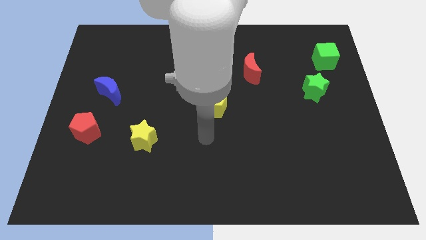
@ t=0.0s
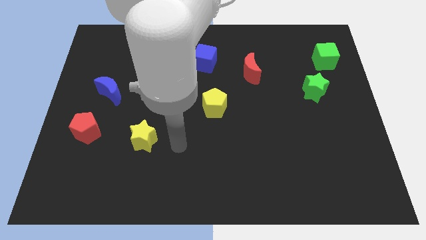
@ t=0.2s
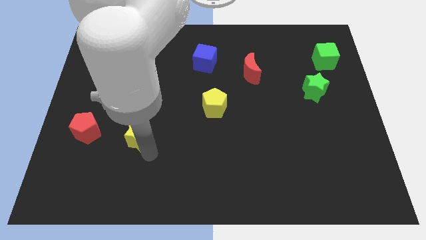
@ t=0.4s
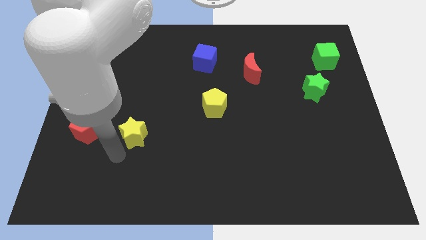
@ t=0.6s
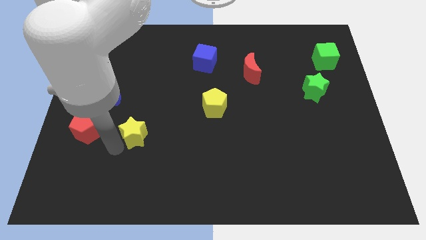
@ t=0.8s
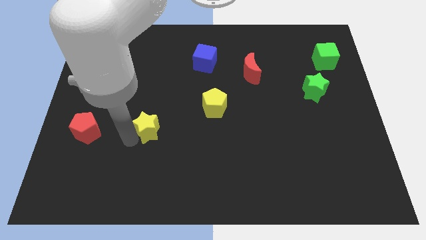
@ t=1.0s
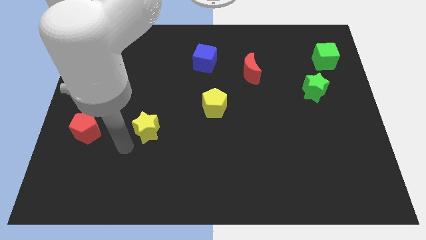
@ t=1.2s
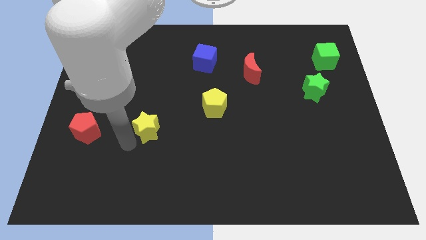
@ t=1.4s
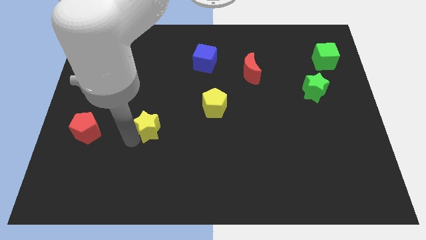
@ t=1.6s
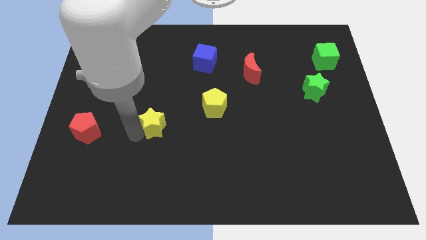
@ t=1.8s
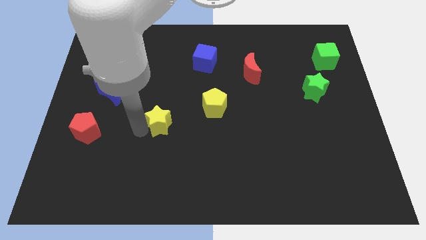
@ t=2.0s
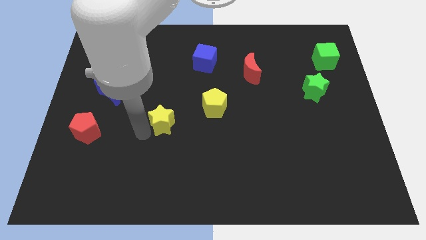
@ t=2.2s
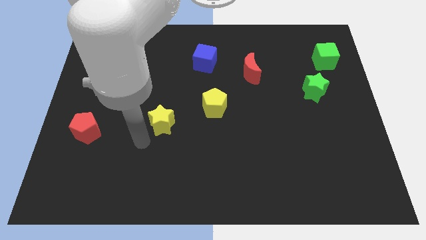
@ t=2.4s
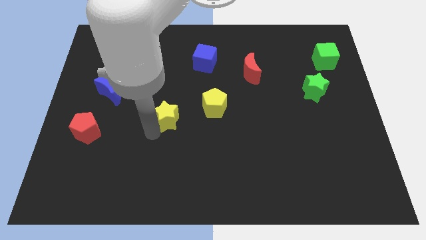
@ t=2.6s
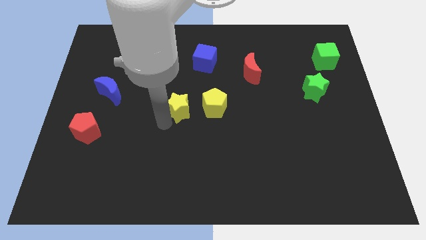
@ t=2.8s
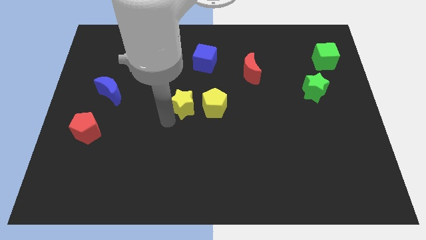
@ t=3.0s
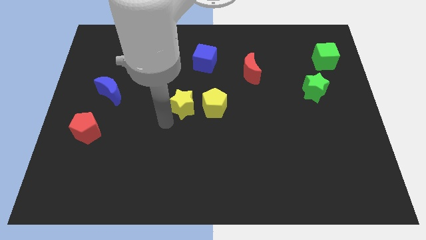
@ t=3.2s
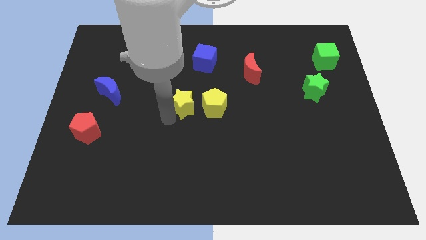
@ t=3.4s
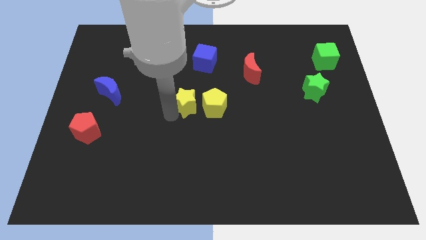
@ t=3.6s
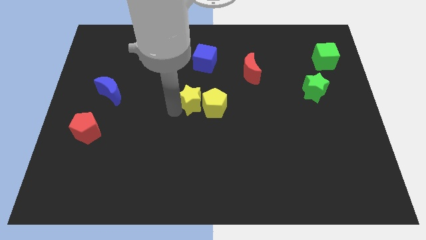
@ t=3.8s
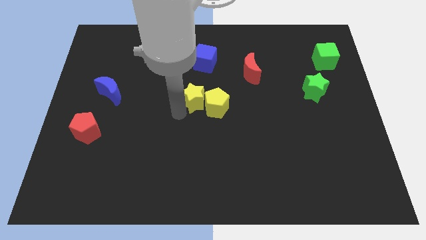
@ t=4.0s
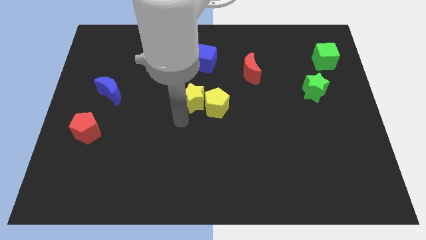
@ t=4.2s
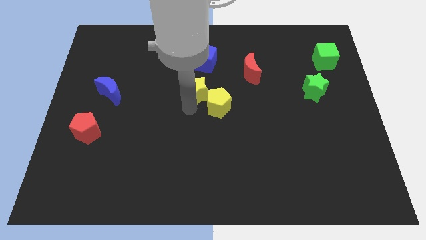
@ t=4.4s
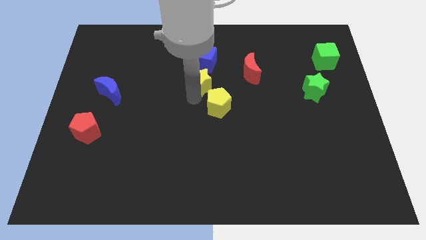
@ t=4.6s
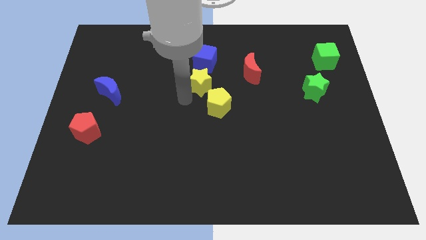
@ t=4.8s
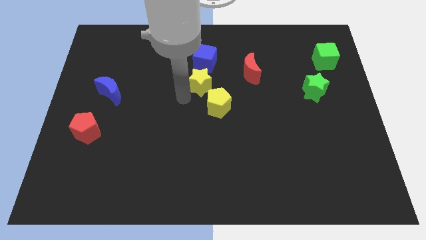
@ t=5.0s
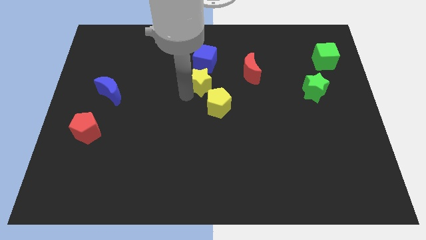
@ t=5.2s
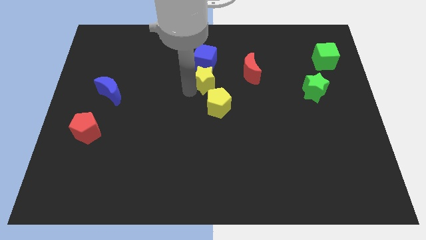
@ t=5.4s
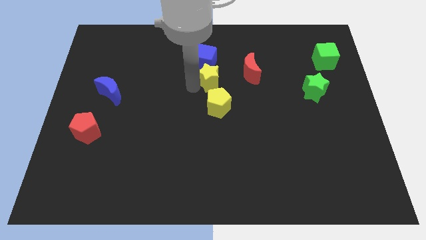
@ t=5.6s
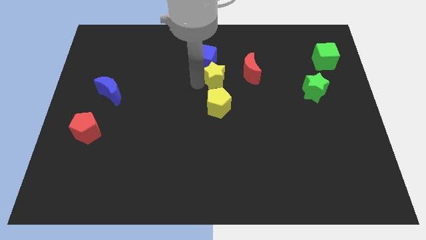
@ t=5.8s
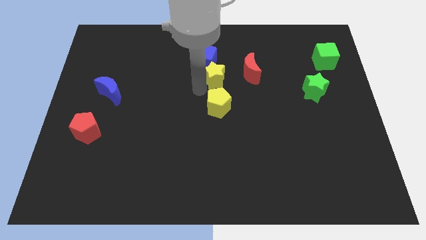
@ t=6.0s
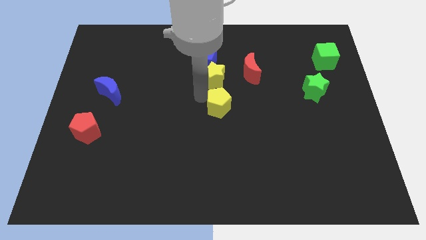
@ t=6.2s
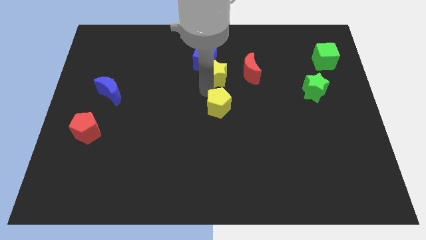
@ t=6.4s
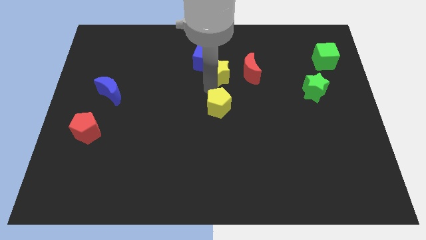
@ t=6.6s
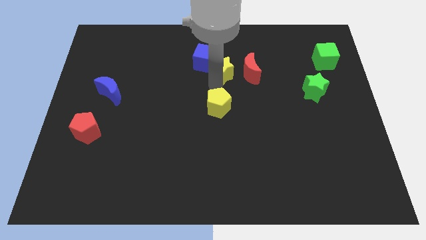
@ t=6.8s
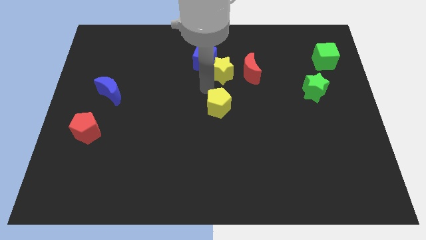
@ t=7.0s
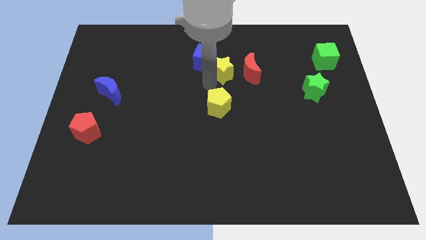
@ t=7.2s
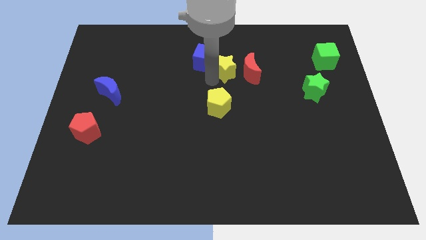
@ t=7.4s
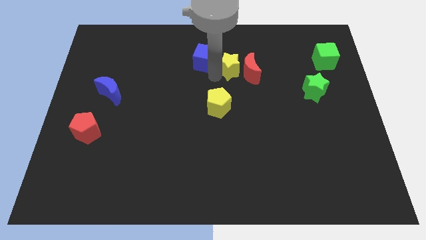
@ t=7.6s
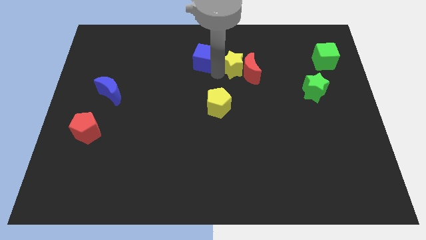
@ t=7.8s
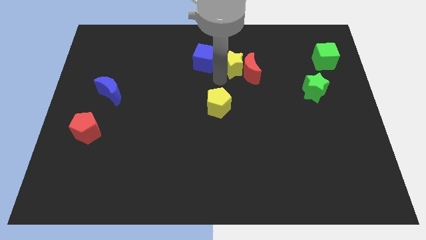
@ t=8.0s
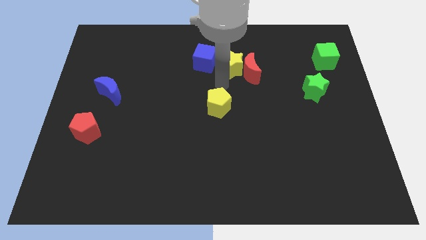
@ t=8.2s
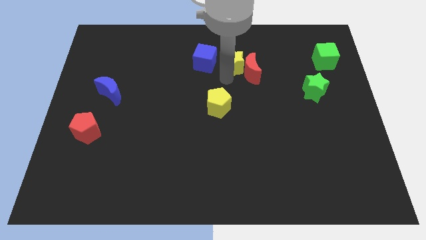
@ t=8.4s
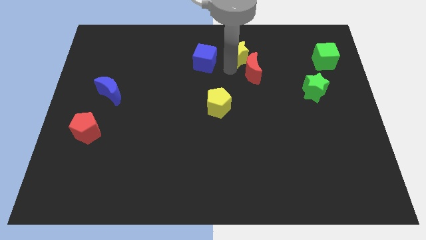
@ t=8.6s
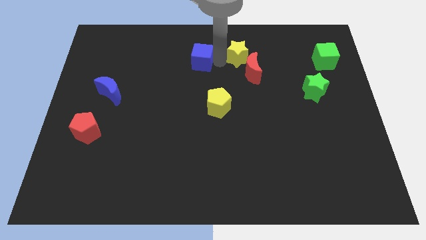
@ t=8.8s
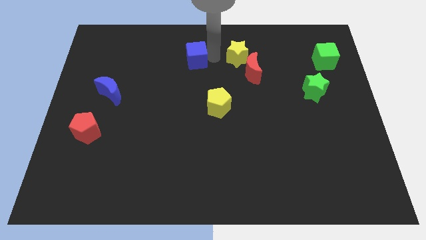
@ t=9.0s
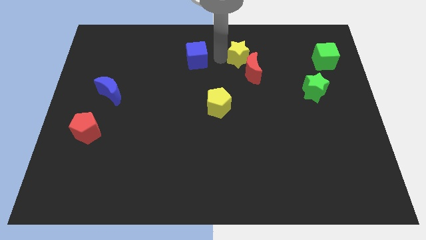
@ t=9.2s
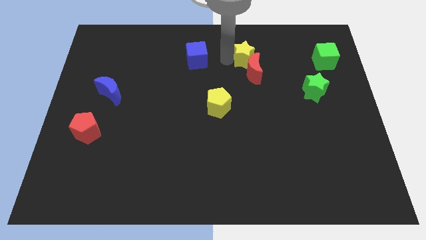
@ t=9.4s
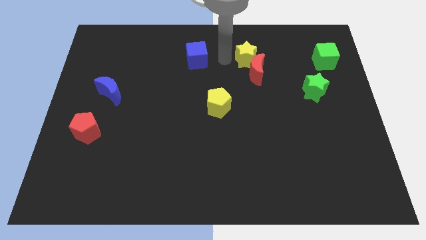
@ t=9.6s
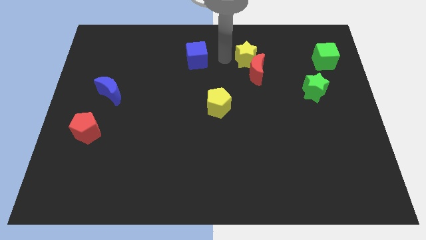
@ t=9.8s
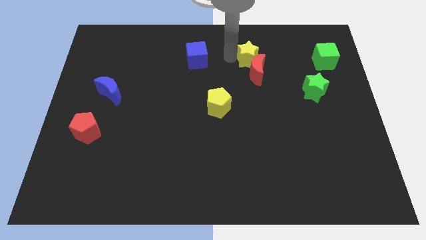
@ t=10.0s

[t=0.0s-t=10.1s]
slide the yellow star diagonally up and to the right of the red moon

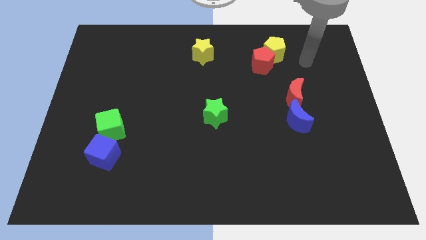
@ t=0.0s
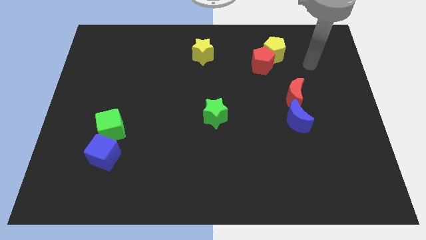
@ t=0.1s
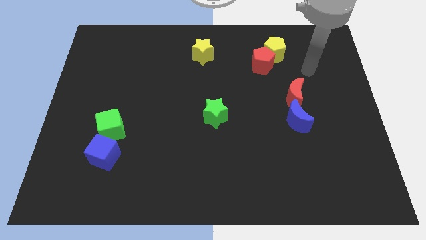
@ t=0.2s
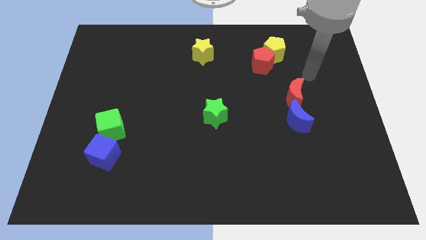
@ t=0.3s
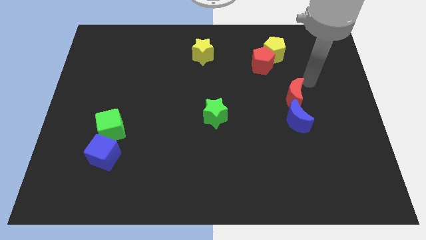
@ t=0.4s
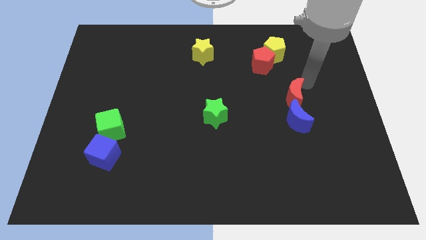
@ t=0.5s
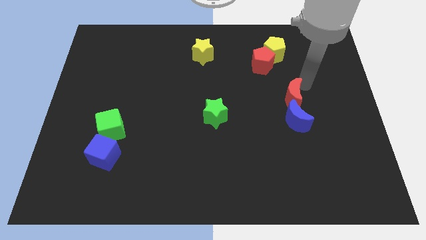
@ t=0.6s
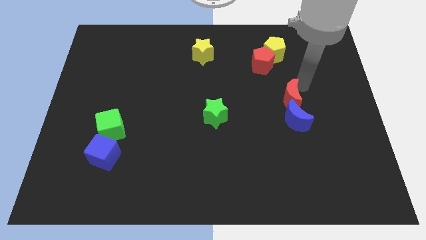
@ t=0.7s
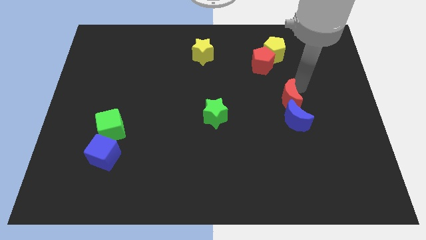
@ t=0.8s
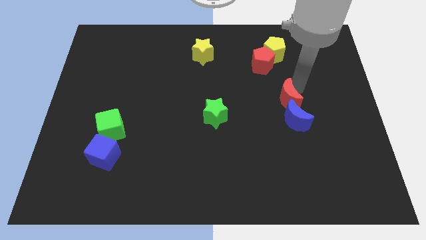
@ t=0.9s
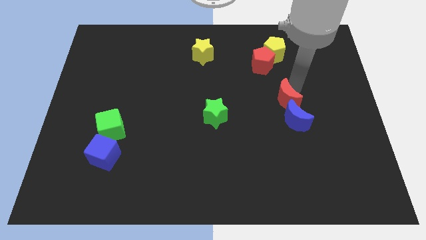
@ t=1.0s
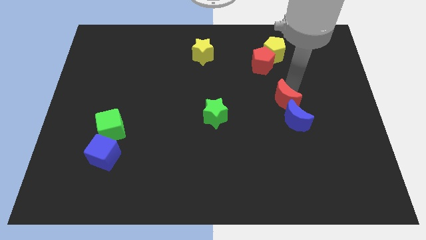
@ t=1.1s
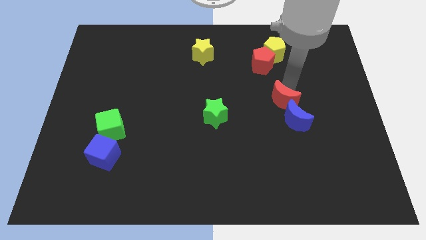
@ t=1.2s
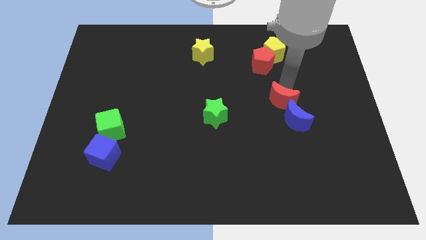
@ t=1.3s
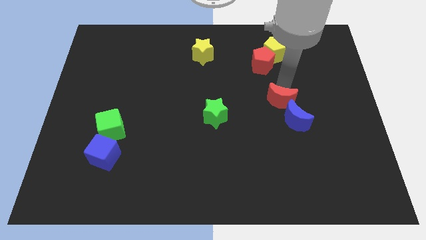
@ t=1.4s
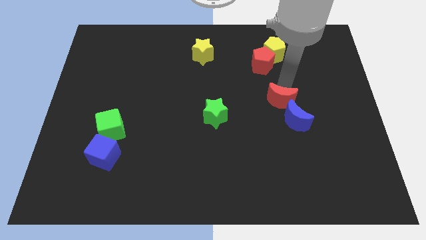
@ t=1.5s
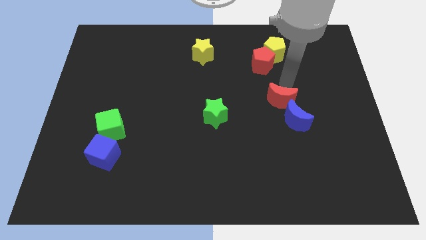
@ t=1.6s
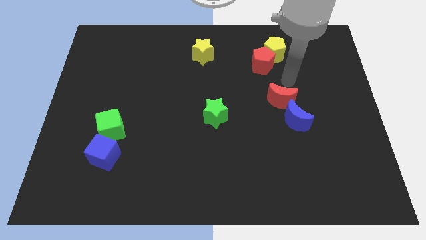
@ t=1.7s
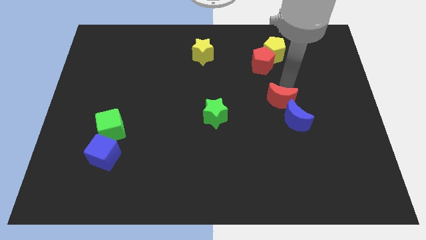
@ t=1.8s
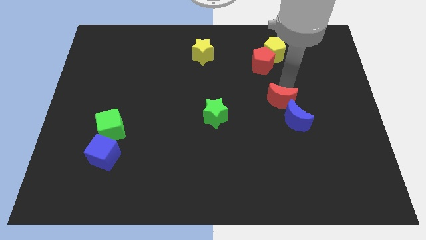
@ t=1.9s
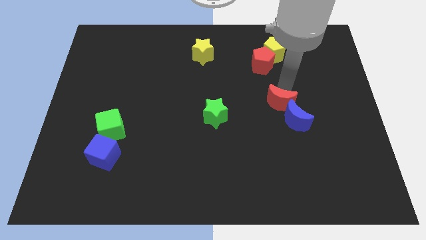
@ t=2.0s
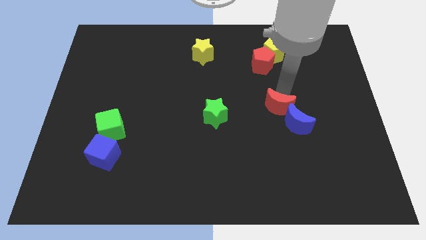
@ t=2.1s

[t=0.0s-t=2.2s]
move the red moon to the right of the green star

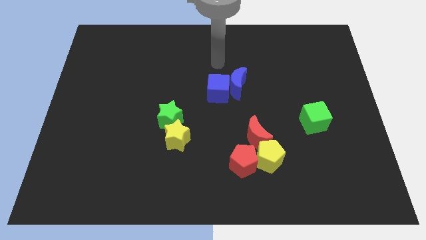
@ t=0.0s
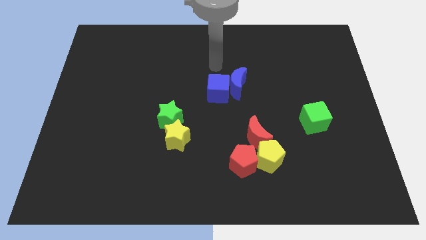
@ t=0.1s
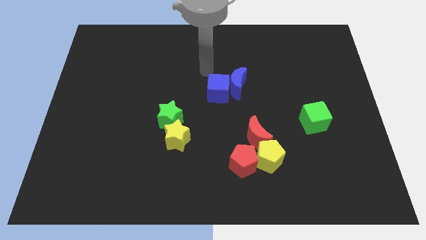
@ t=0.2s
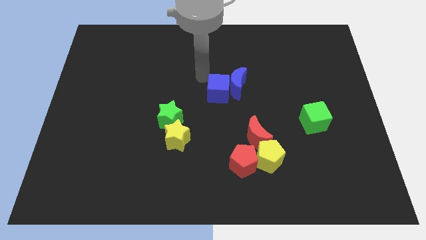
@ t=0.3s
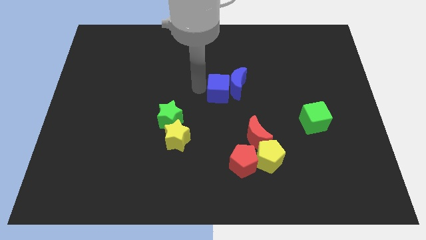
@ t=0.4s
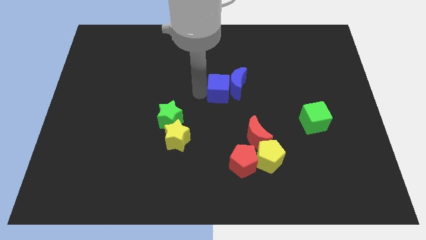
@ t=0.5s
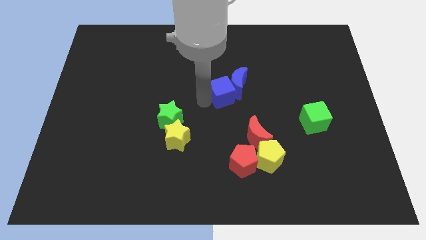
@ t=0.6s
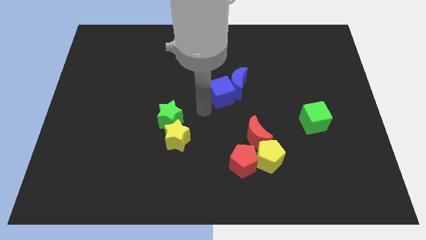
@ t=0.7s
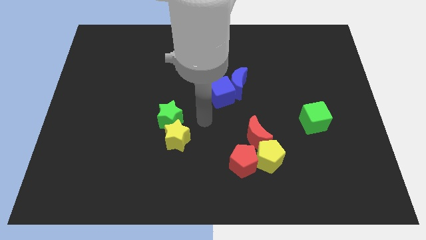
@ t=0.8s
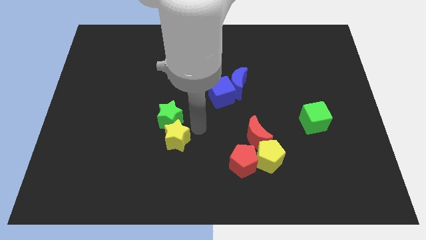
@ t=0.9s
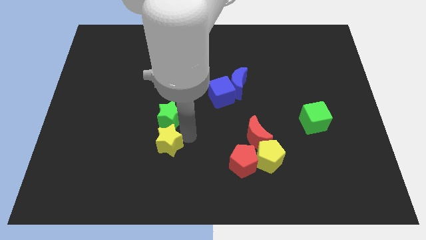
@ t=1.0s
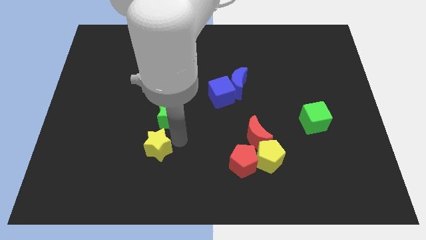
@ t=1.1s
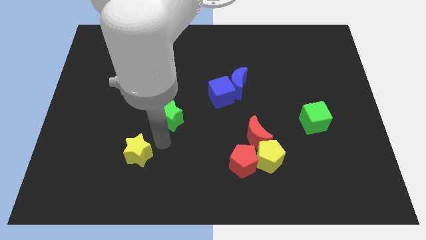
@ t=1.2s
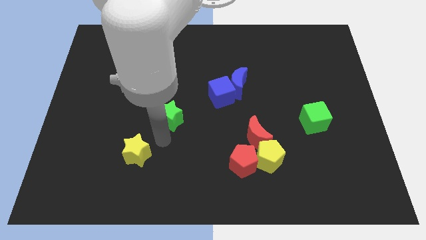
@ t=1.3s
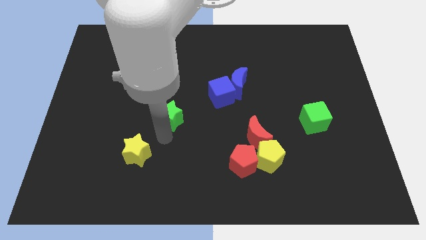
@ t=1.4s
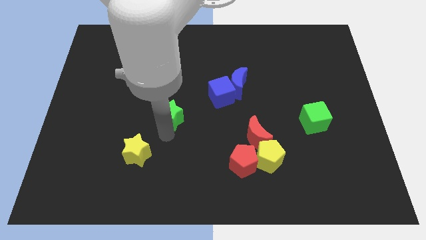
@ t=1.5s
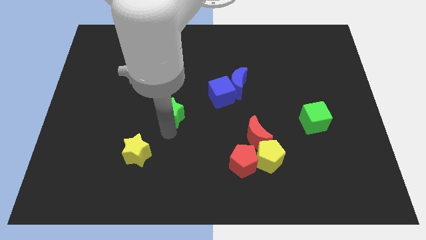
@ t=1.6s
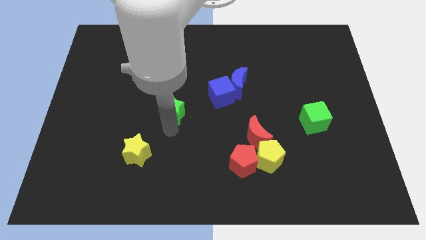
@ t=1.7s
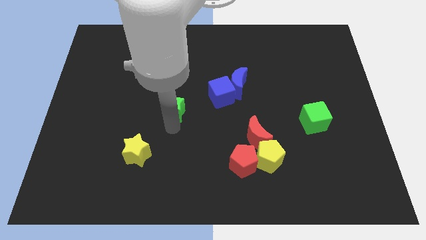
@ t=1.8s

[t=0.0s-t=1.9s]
slide the green star left of the blue cube
